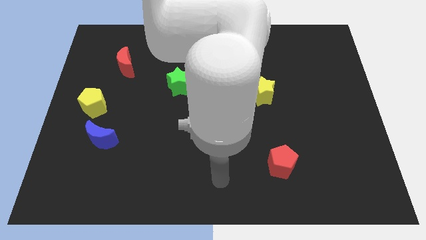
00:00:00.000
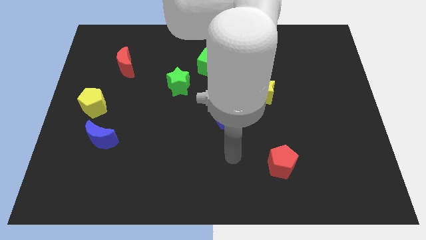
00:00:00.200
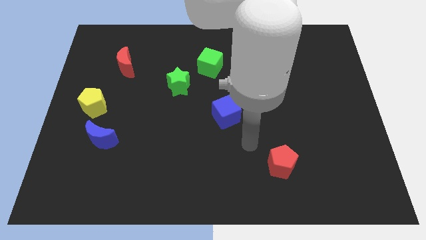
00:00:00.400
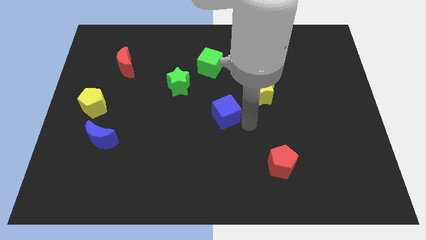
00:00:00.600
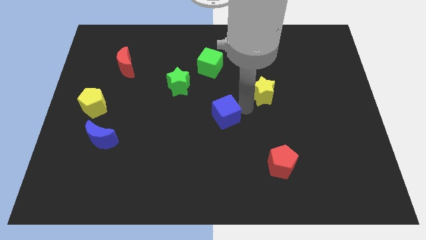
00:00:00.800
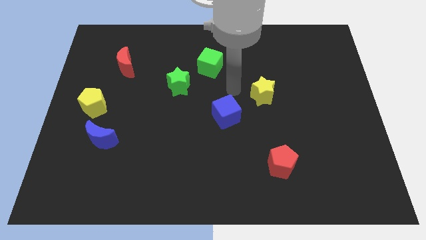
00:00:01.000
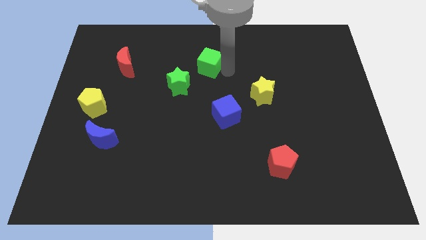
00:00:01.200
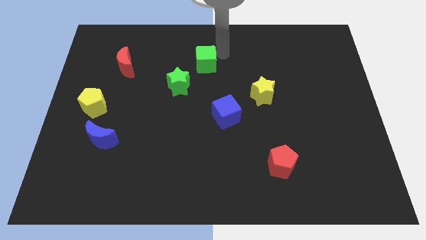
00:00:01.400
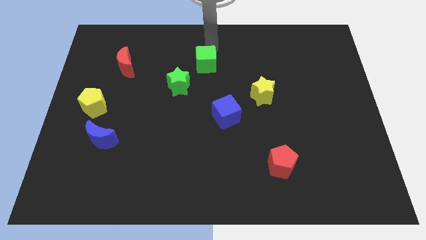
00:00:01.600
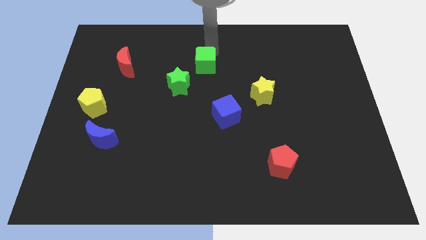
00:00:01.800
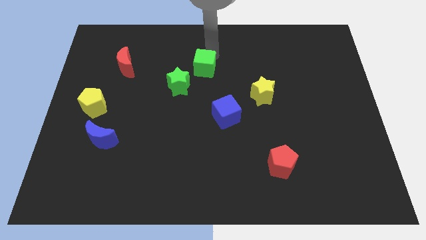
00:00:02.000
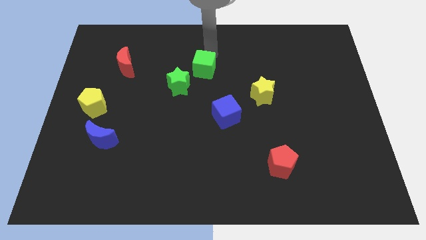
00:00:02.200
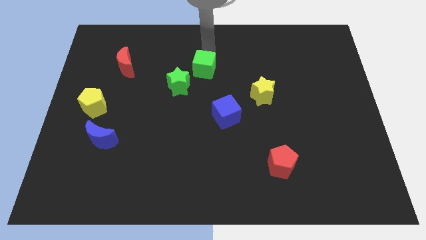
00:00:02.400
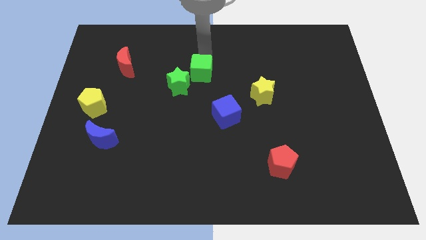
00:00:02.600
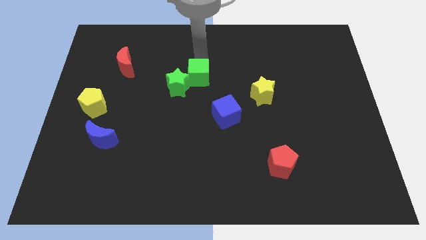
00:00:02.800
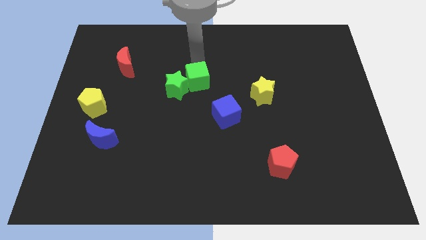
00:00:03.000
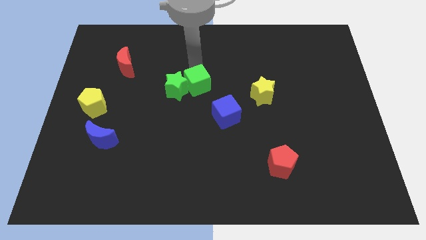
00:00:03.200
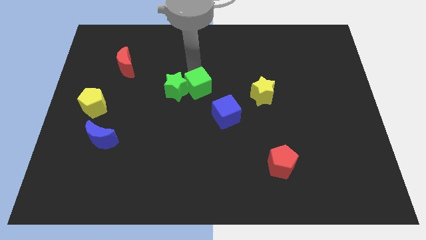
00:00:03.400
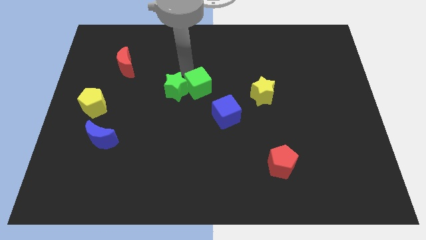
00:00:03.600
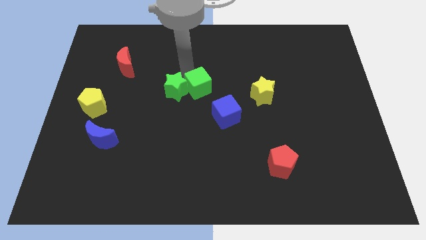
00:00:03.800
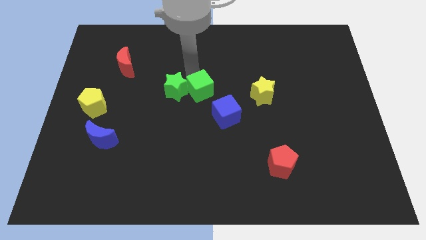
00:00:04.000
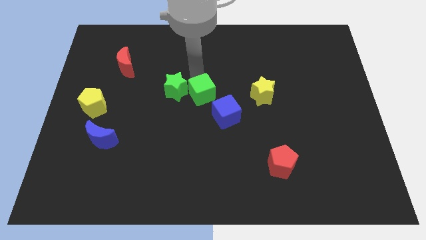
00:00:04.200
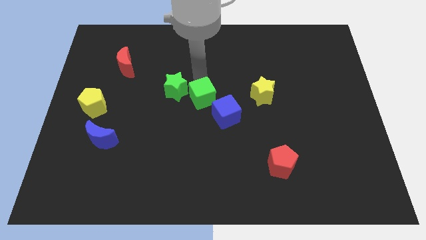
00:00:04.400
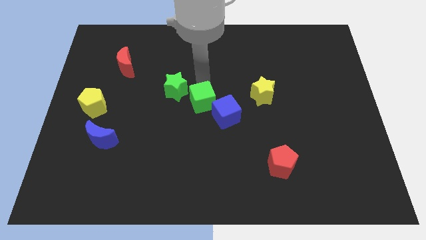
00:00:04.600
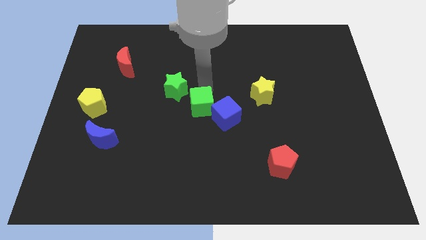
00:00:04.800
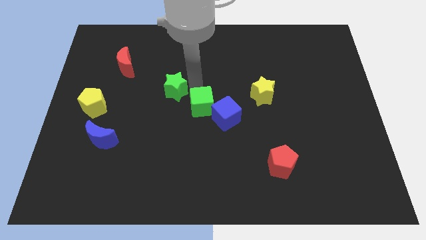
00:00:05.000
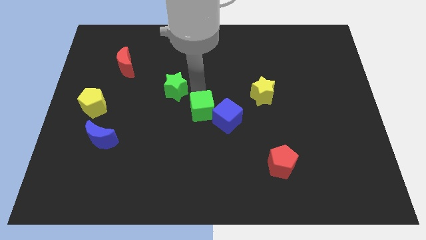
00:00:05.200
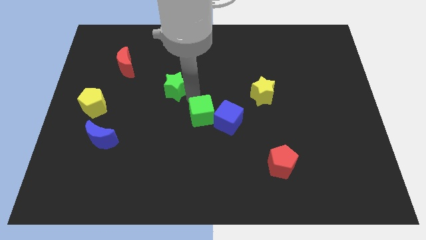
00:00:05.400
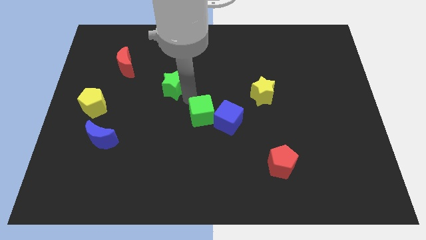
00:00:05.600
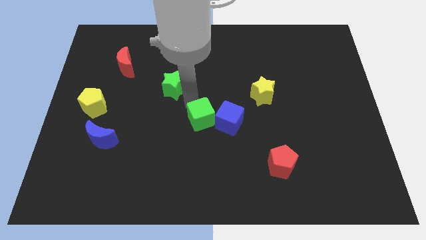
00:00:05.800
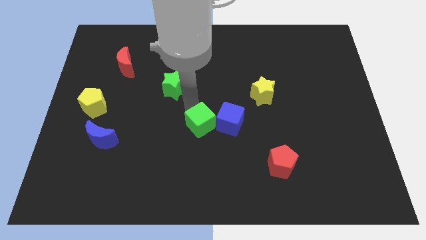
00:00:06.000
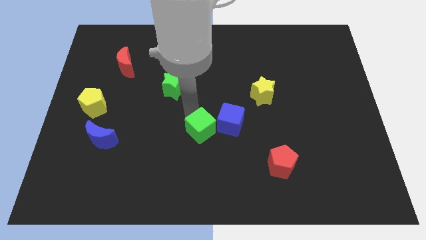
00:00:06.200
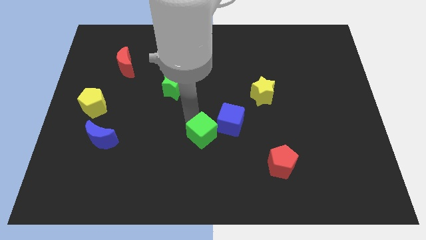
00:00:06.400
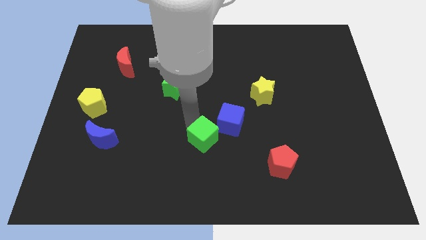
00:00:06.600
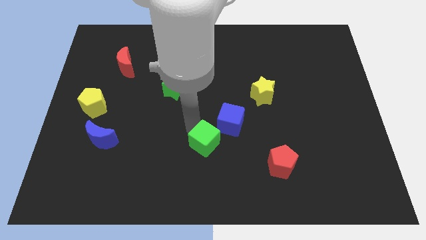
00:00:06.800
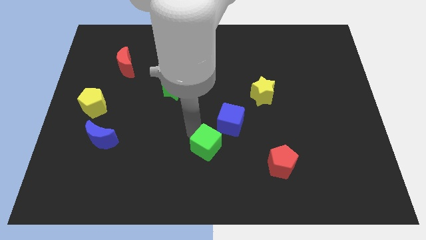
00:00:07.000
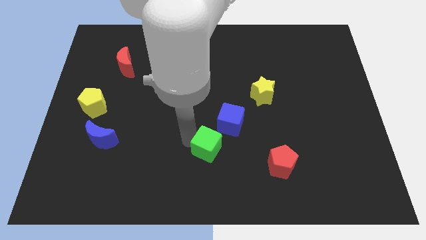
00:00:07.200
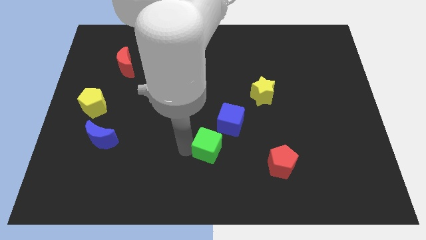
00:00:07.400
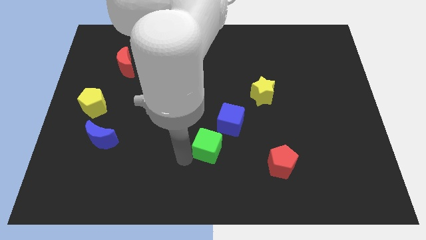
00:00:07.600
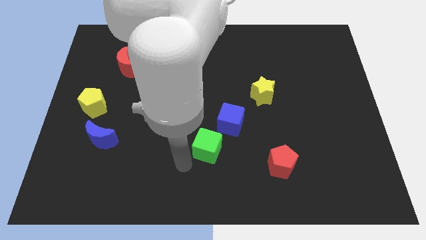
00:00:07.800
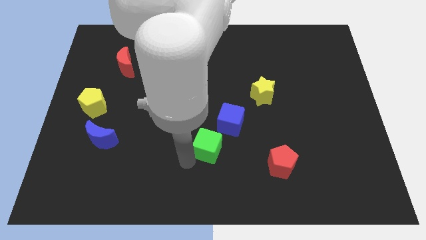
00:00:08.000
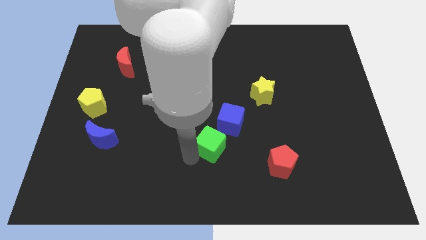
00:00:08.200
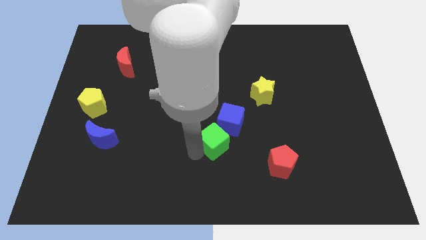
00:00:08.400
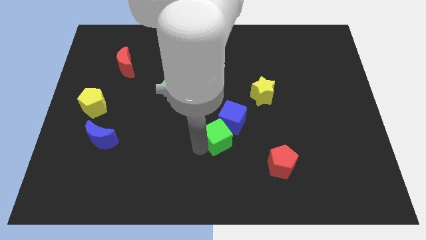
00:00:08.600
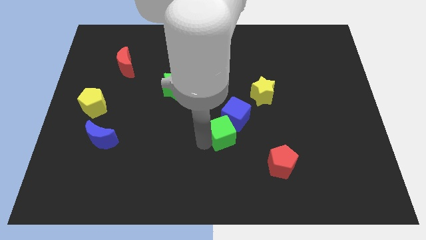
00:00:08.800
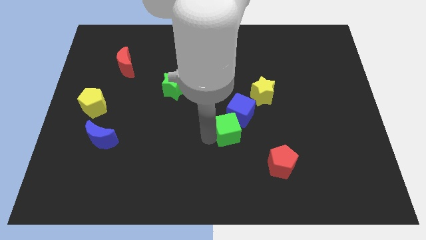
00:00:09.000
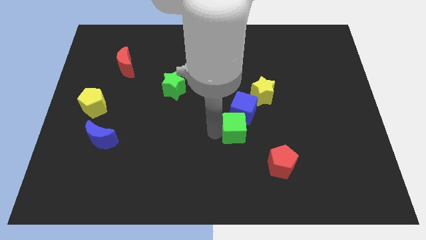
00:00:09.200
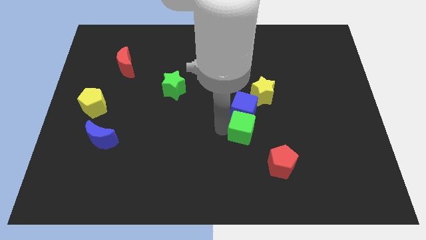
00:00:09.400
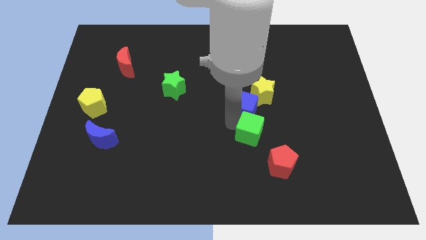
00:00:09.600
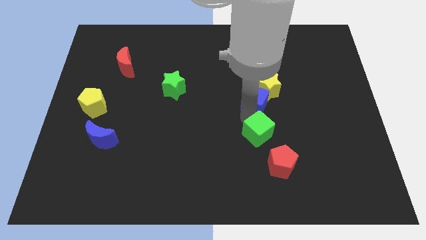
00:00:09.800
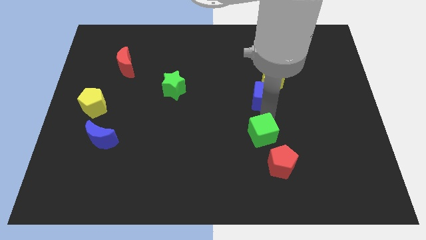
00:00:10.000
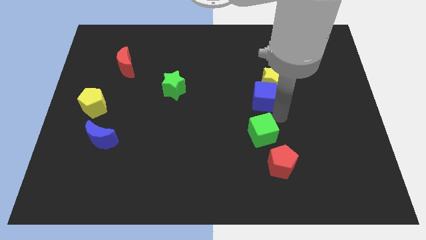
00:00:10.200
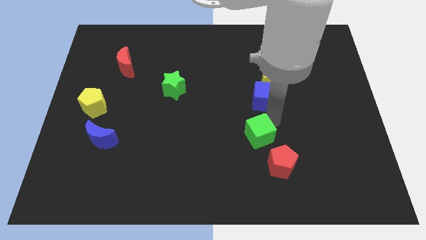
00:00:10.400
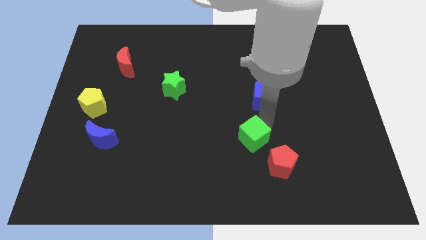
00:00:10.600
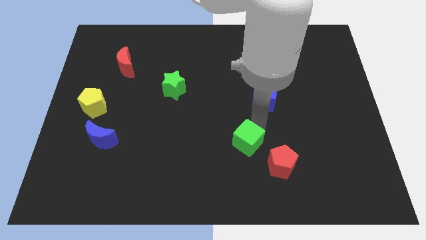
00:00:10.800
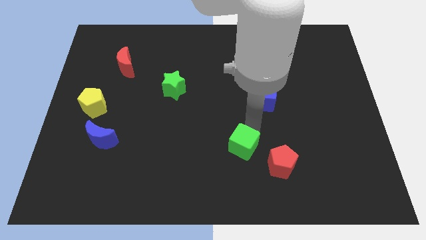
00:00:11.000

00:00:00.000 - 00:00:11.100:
push the green cube to the left side of the red pentagon

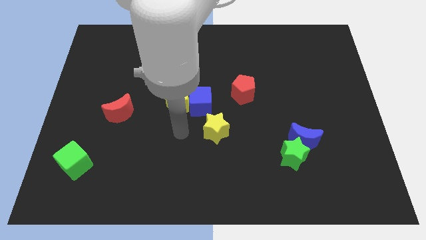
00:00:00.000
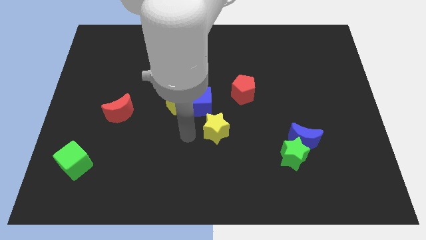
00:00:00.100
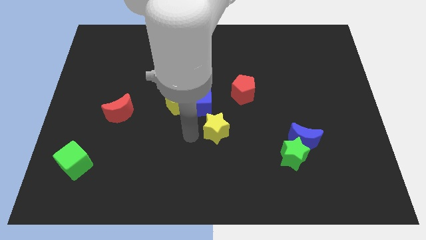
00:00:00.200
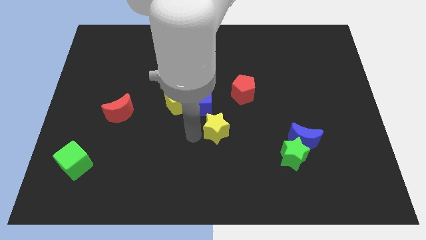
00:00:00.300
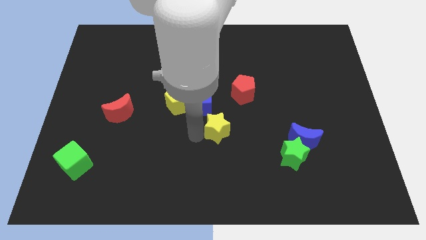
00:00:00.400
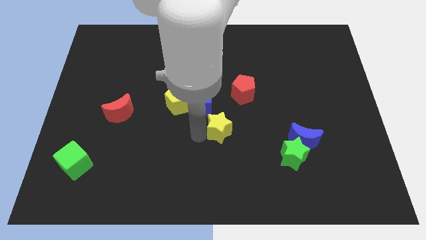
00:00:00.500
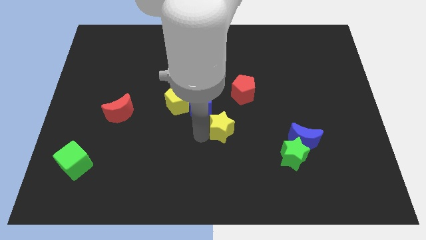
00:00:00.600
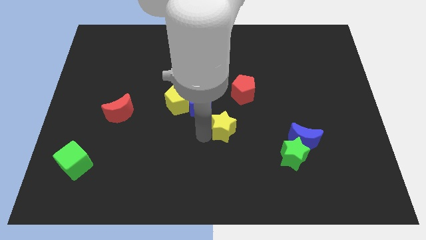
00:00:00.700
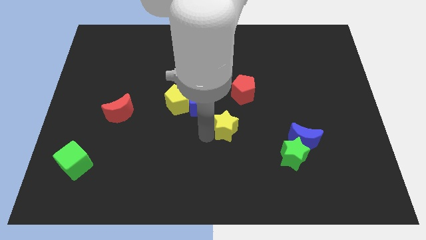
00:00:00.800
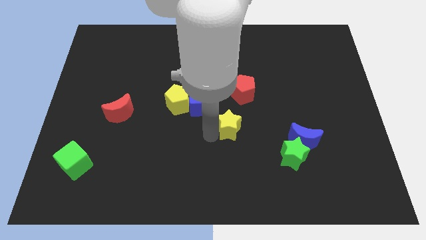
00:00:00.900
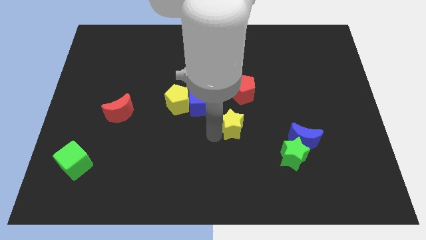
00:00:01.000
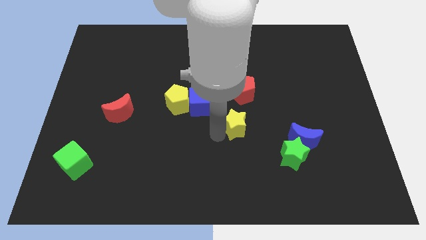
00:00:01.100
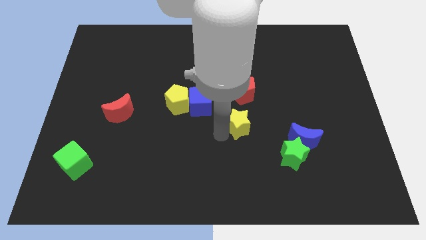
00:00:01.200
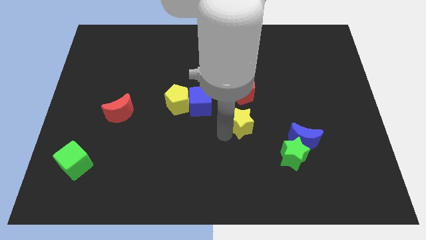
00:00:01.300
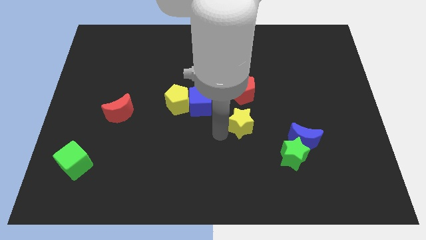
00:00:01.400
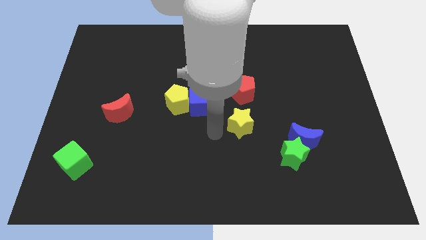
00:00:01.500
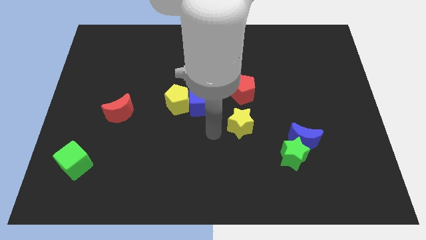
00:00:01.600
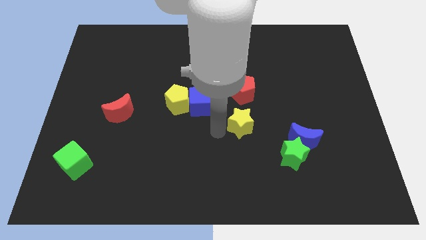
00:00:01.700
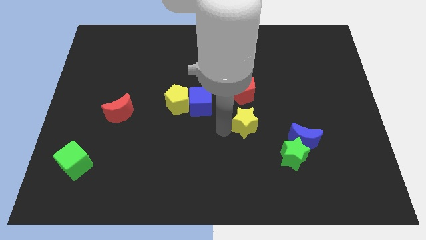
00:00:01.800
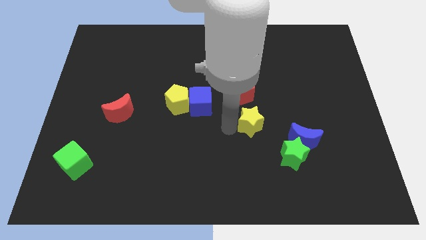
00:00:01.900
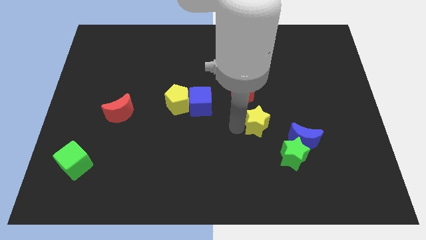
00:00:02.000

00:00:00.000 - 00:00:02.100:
move the yellow star diagonally down and to the right of the red pentagon
